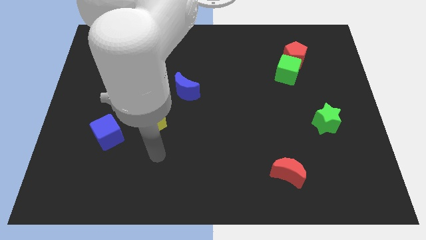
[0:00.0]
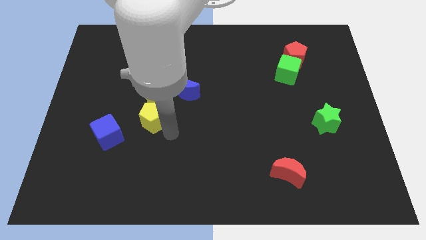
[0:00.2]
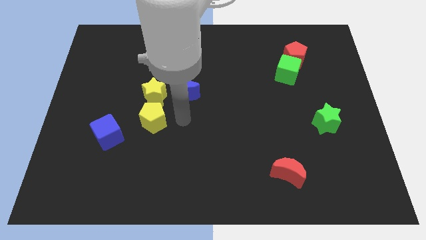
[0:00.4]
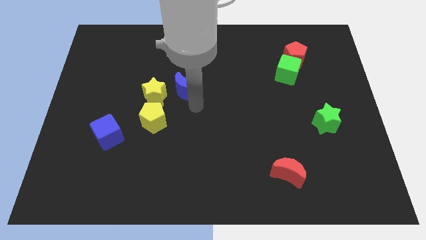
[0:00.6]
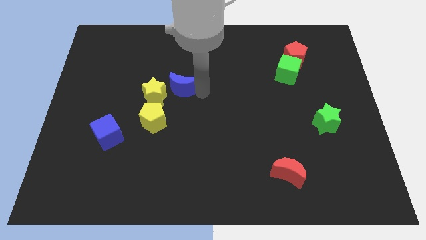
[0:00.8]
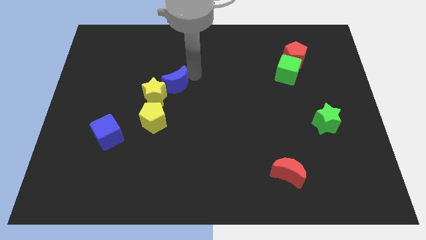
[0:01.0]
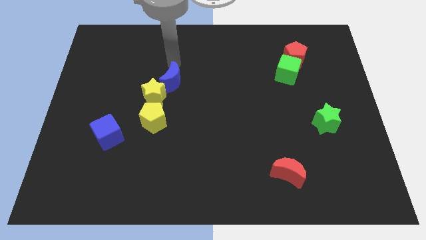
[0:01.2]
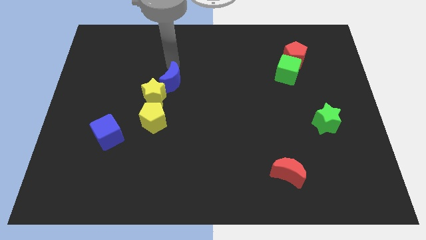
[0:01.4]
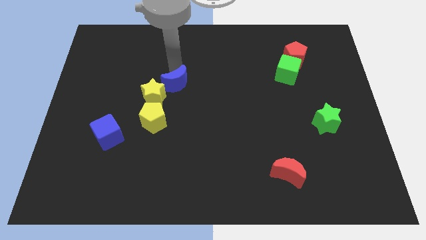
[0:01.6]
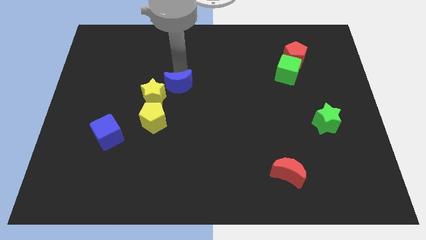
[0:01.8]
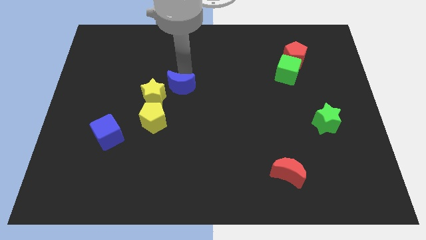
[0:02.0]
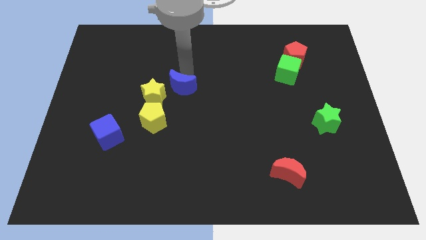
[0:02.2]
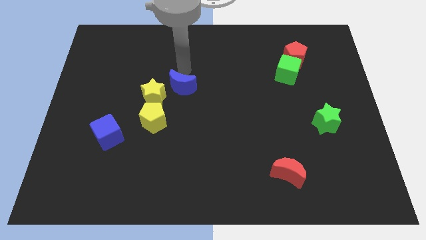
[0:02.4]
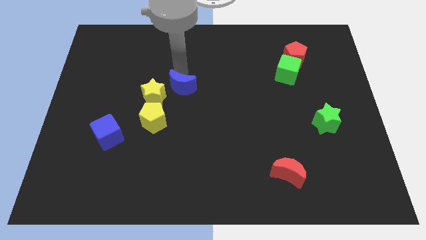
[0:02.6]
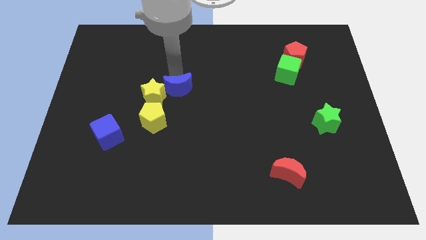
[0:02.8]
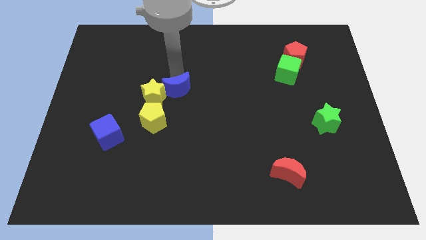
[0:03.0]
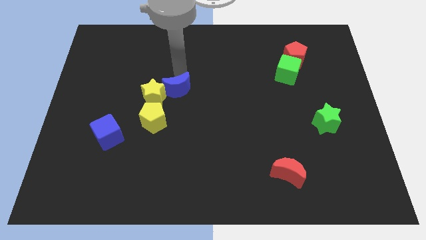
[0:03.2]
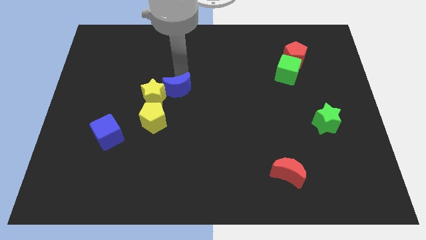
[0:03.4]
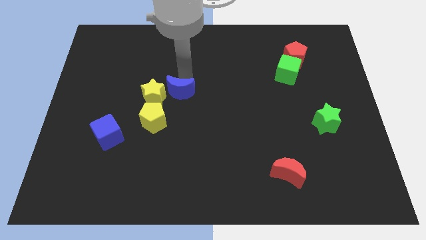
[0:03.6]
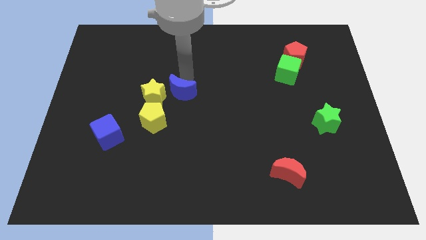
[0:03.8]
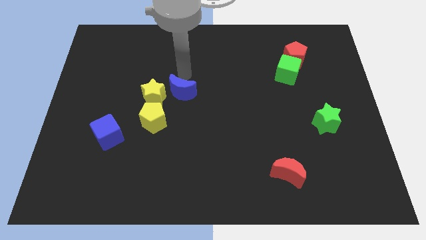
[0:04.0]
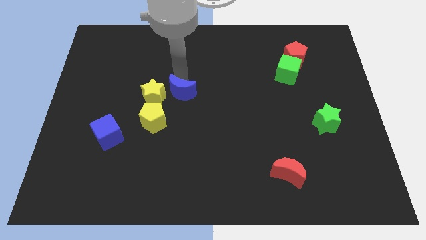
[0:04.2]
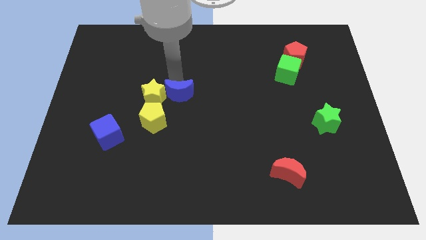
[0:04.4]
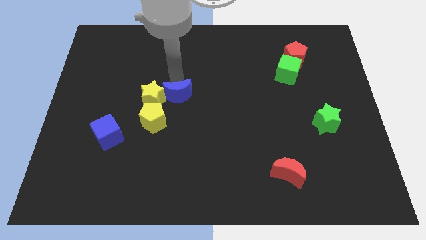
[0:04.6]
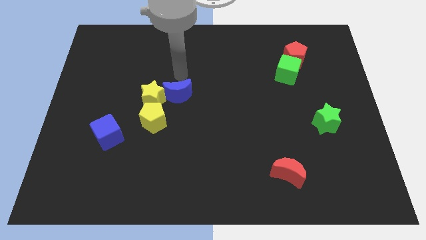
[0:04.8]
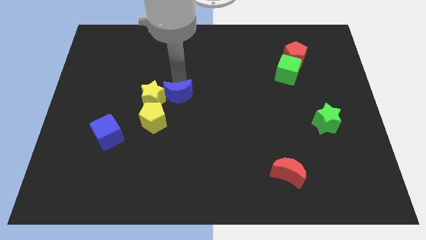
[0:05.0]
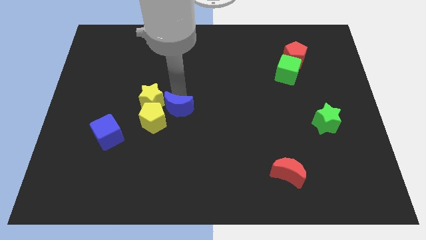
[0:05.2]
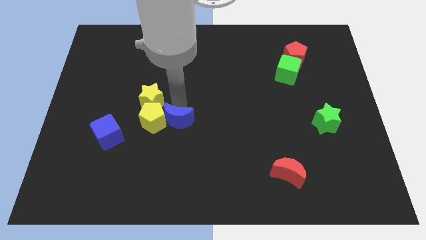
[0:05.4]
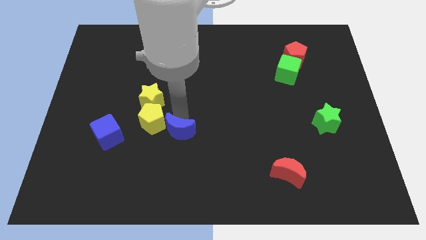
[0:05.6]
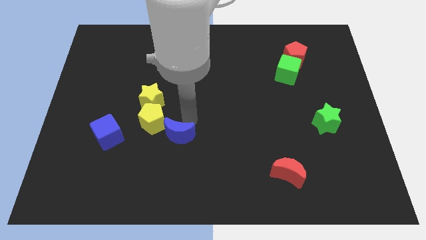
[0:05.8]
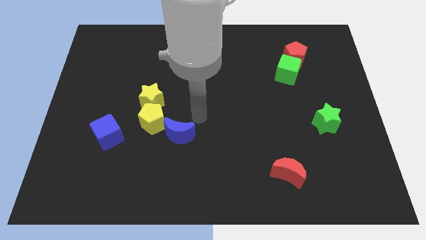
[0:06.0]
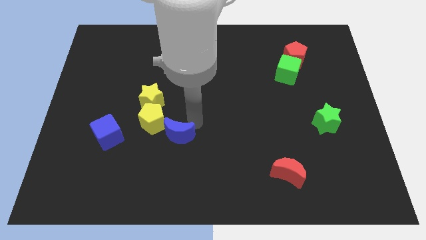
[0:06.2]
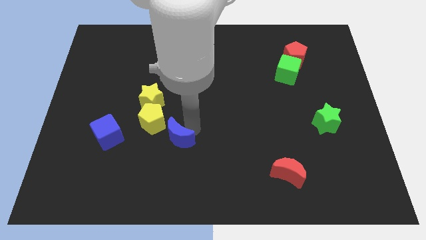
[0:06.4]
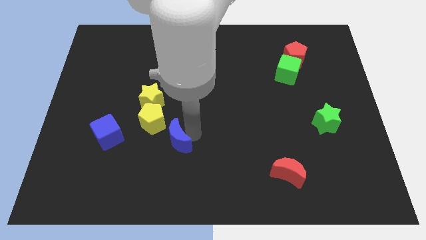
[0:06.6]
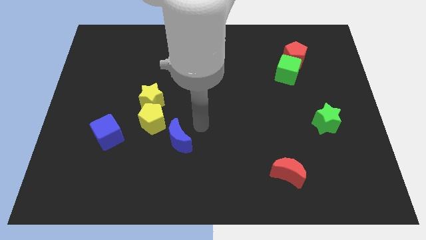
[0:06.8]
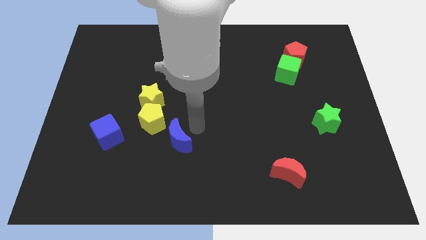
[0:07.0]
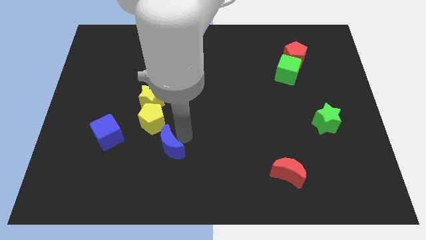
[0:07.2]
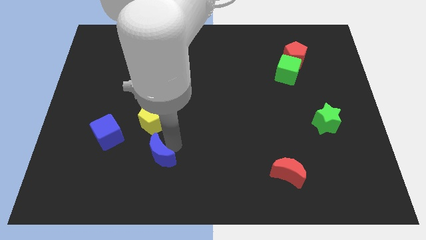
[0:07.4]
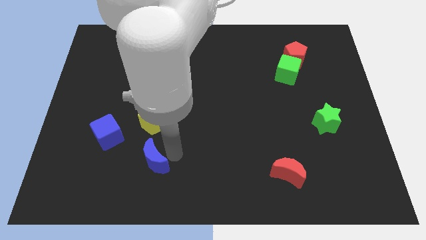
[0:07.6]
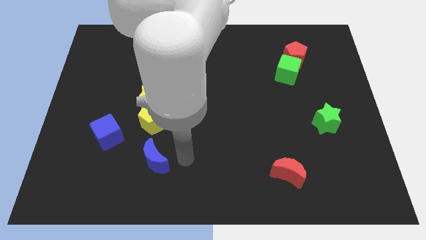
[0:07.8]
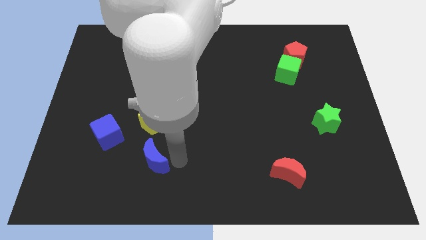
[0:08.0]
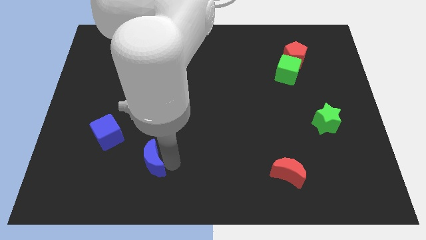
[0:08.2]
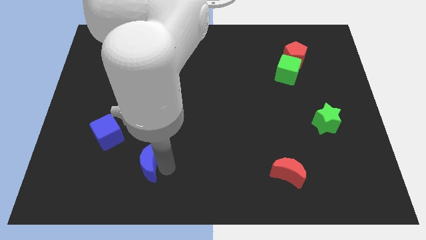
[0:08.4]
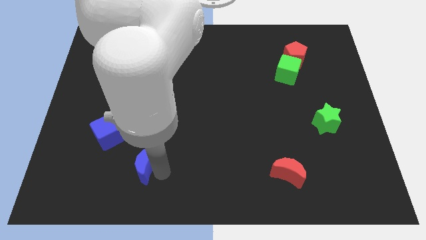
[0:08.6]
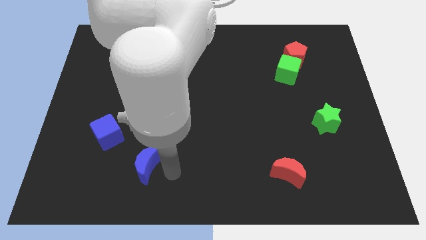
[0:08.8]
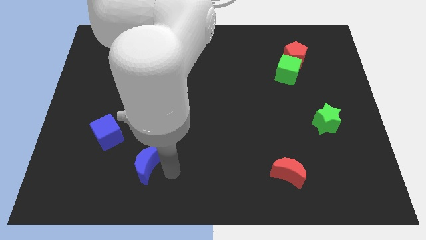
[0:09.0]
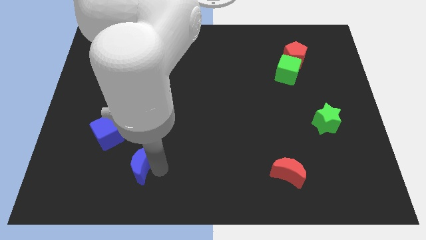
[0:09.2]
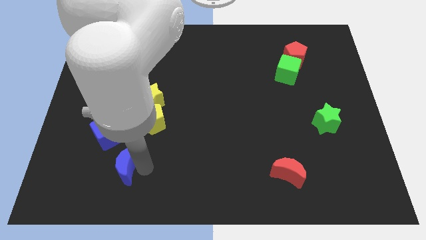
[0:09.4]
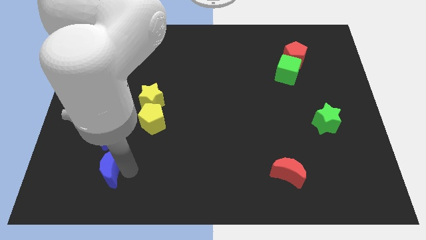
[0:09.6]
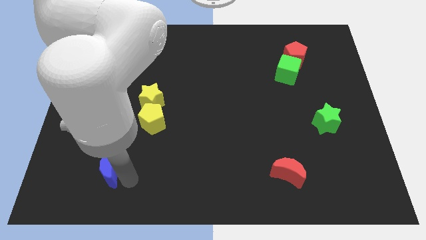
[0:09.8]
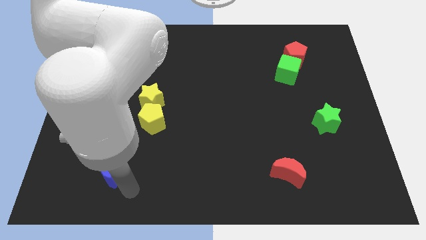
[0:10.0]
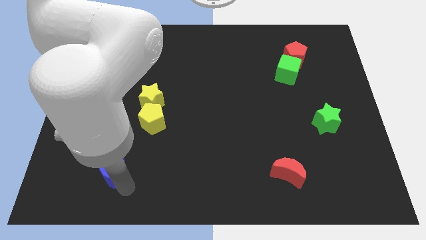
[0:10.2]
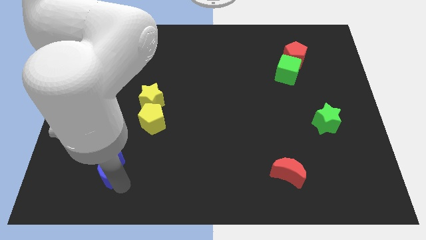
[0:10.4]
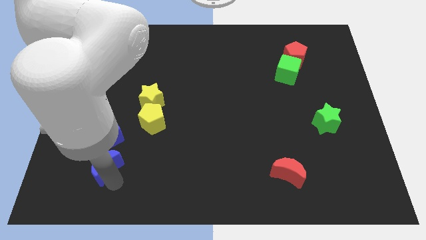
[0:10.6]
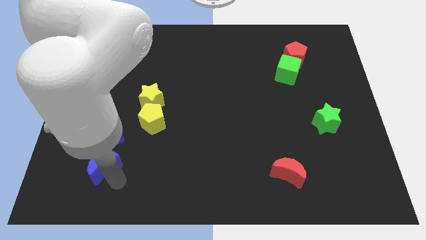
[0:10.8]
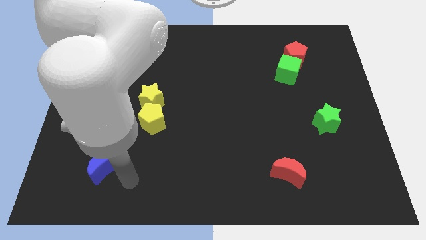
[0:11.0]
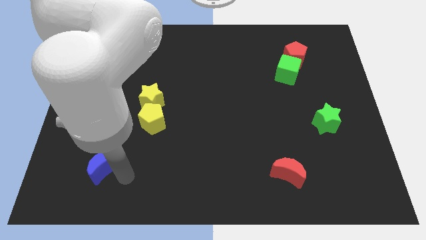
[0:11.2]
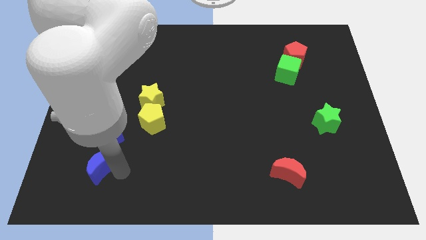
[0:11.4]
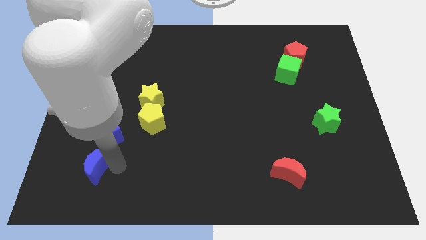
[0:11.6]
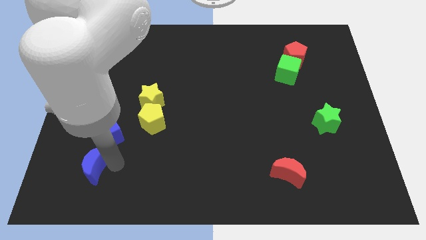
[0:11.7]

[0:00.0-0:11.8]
slide the blue moon diagonally down and to the left of the blue cube

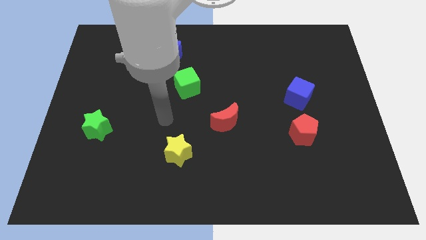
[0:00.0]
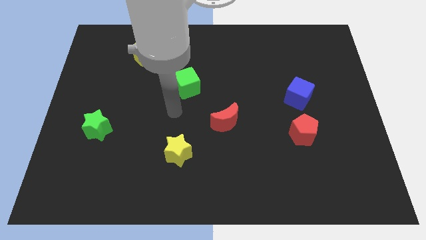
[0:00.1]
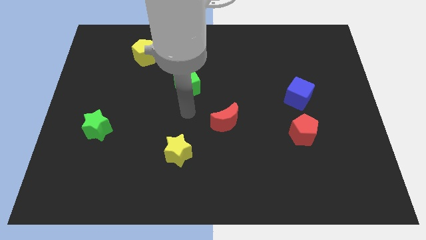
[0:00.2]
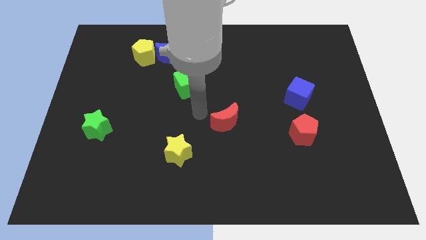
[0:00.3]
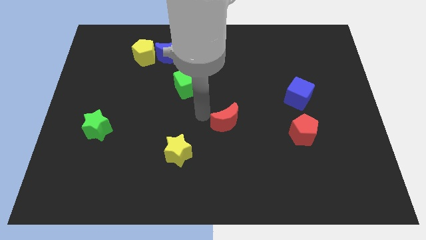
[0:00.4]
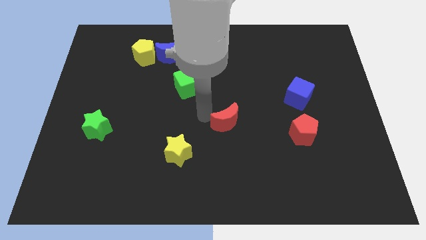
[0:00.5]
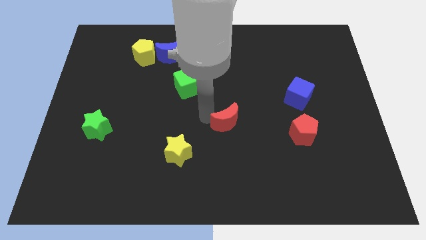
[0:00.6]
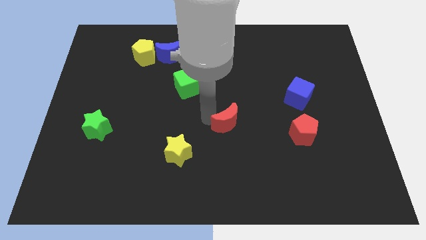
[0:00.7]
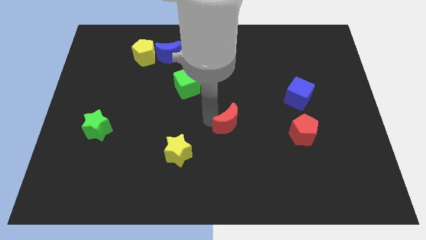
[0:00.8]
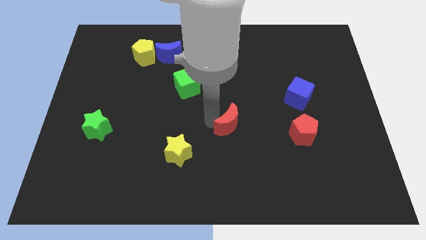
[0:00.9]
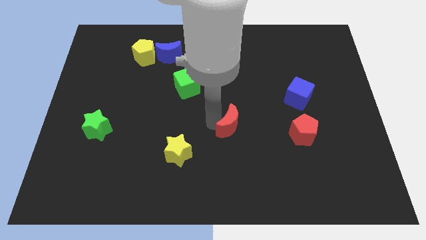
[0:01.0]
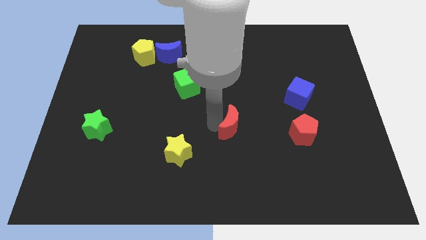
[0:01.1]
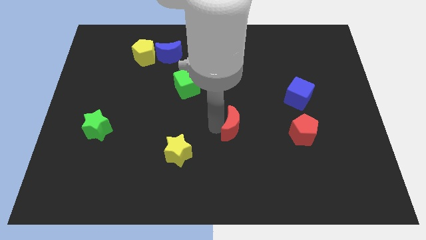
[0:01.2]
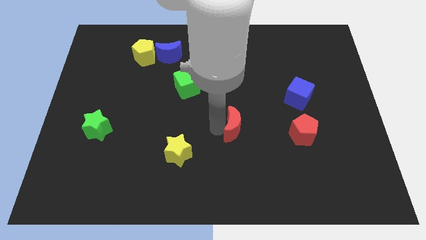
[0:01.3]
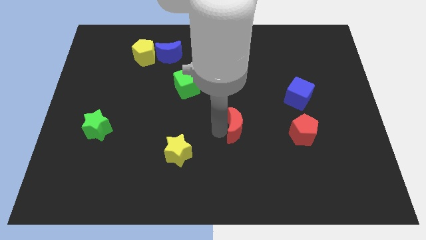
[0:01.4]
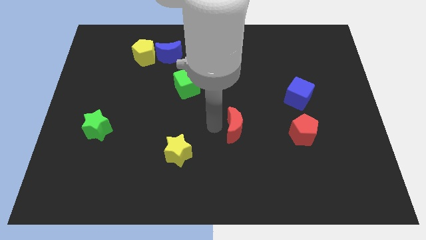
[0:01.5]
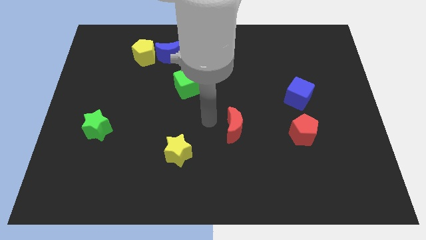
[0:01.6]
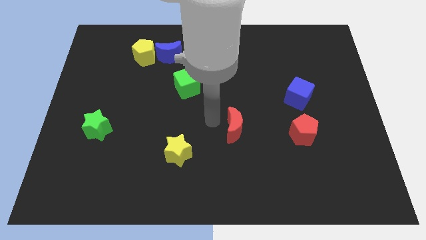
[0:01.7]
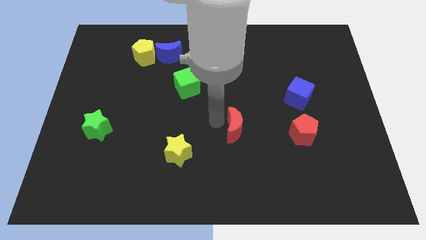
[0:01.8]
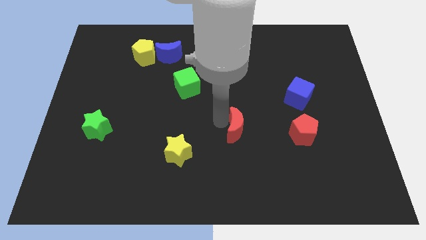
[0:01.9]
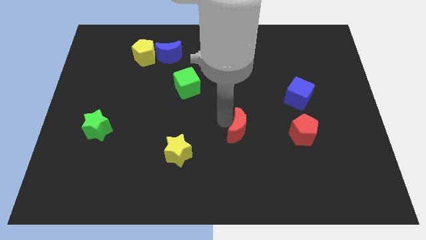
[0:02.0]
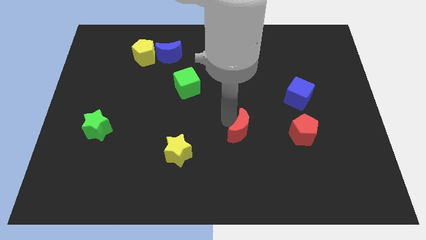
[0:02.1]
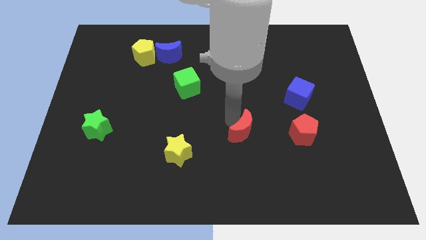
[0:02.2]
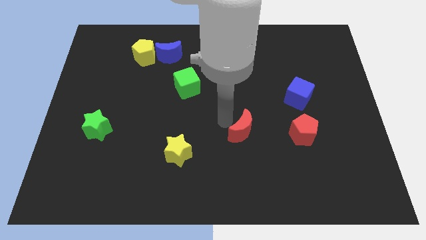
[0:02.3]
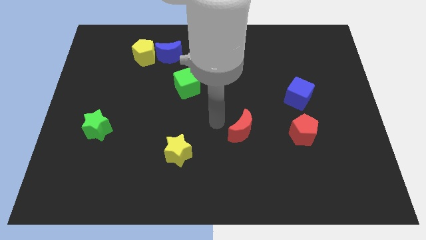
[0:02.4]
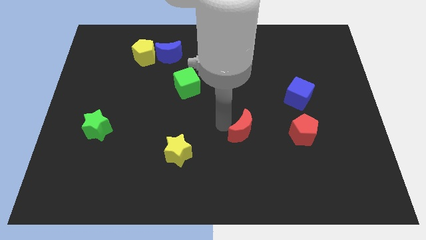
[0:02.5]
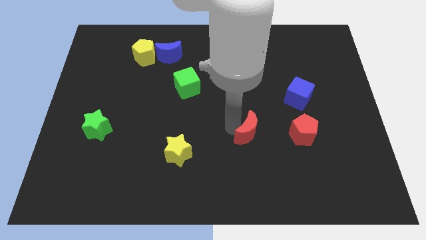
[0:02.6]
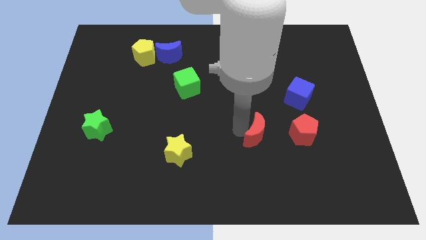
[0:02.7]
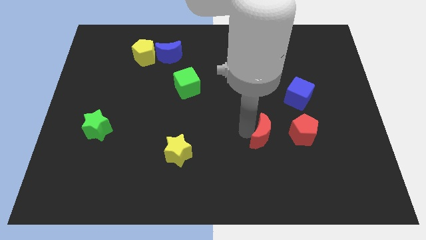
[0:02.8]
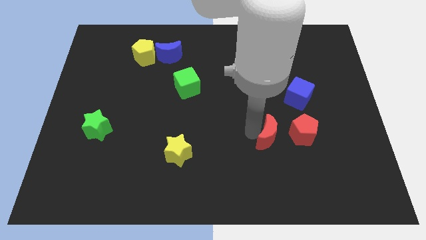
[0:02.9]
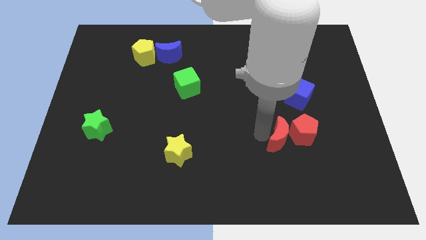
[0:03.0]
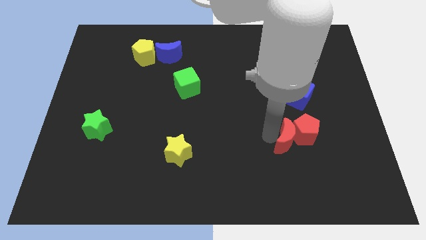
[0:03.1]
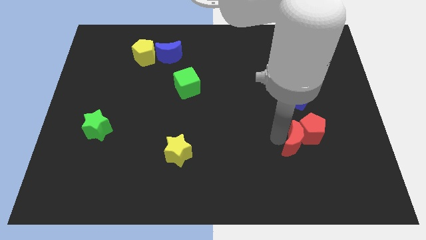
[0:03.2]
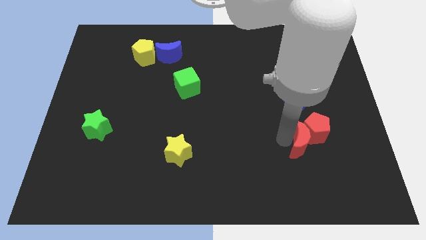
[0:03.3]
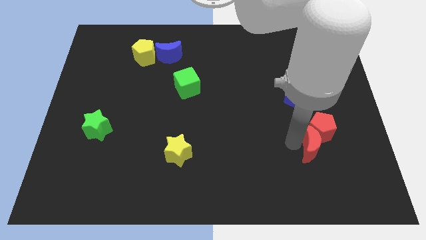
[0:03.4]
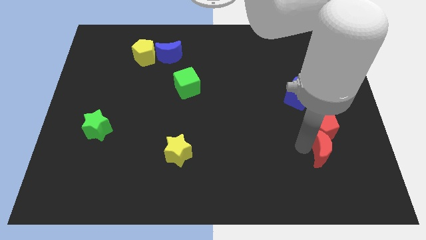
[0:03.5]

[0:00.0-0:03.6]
slide the red moon diagonally down and to the right of the red pentagon
